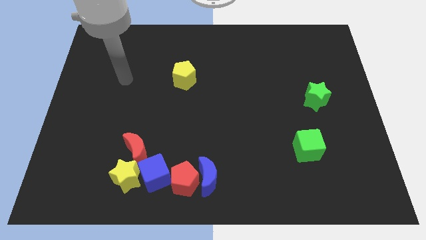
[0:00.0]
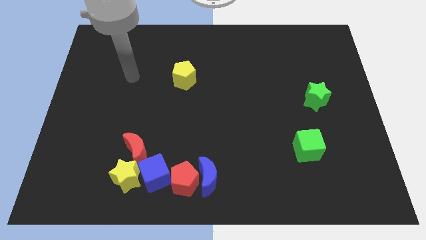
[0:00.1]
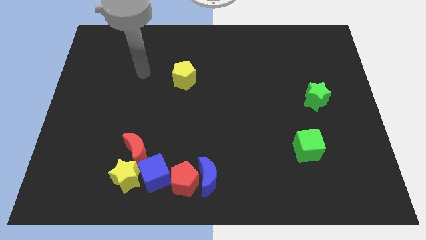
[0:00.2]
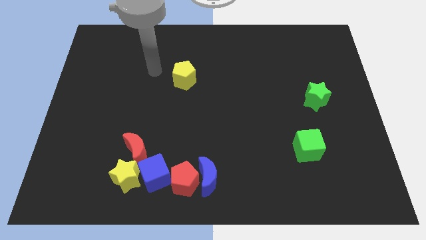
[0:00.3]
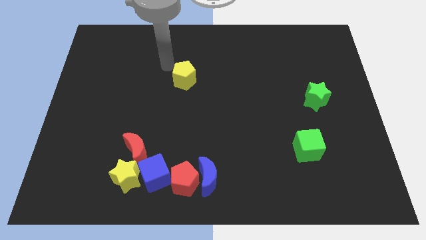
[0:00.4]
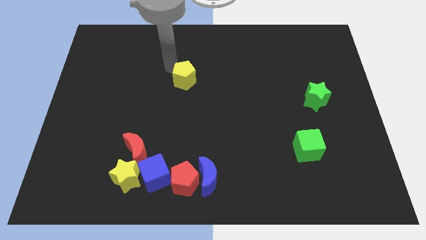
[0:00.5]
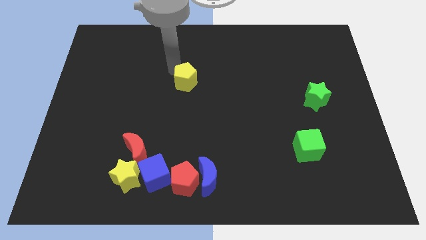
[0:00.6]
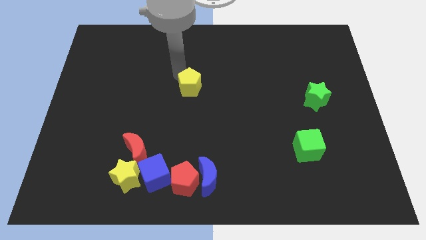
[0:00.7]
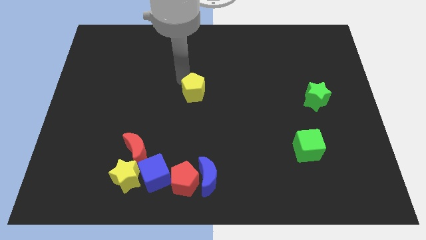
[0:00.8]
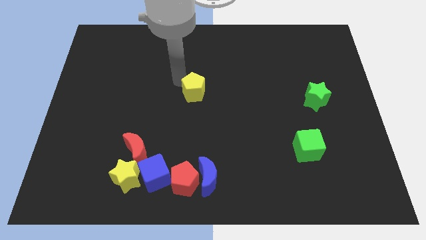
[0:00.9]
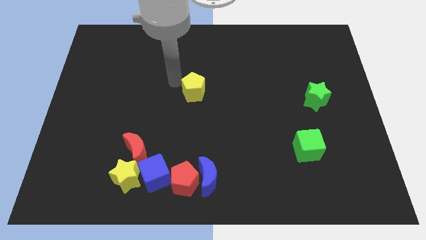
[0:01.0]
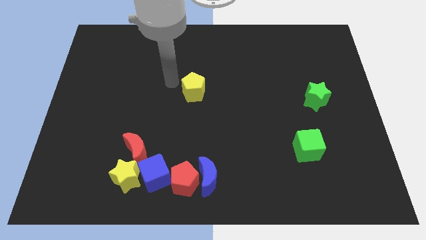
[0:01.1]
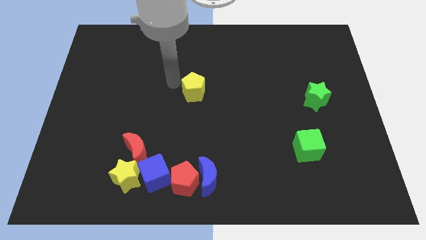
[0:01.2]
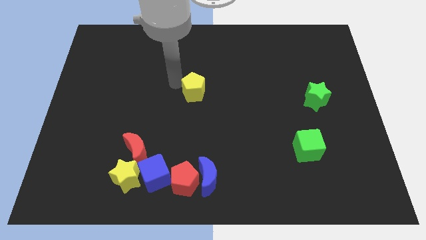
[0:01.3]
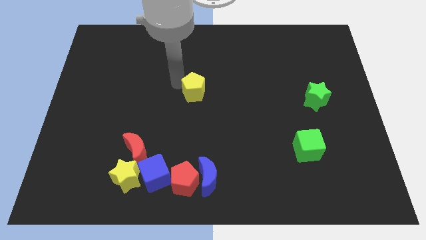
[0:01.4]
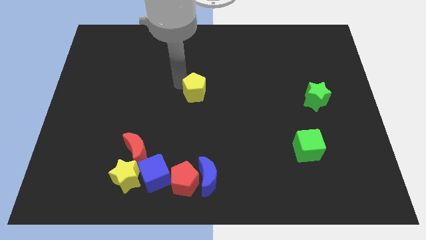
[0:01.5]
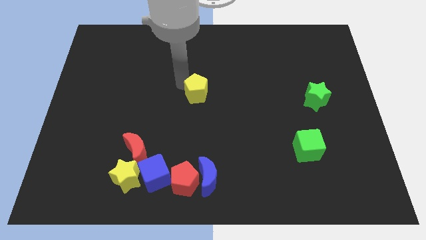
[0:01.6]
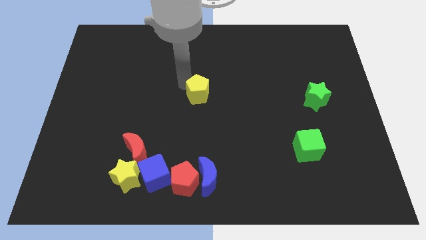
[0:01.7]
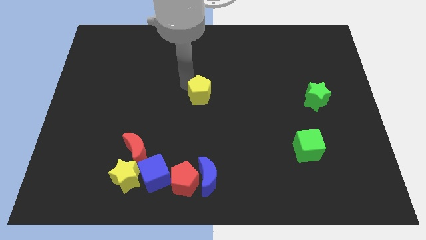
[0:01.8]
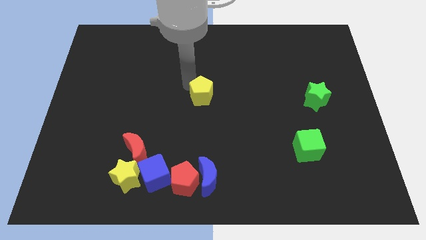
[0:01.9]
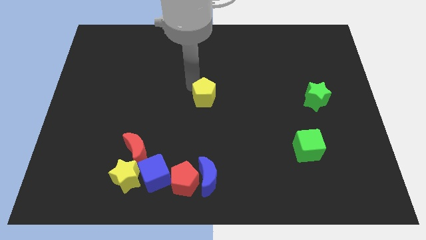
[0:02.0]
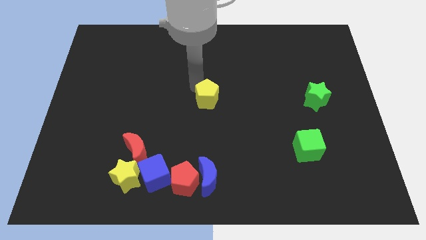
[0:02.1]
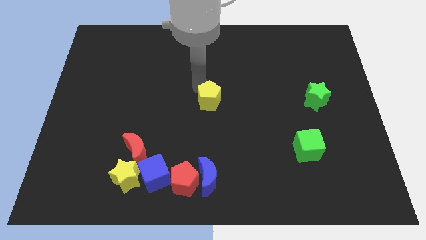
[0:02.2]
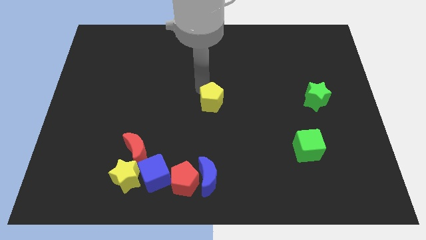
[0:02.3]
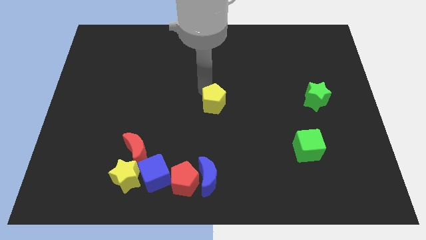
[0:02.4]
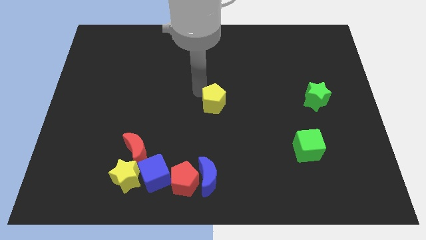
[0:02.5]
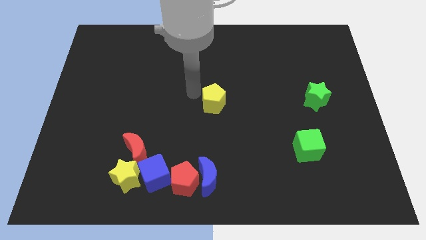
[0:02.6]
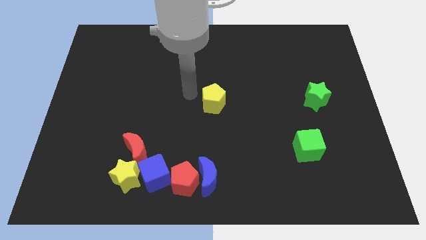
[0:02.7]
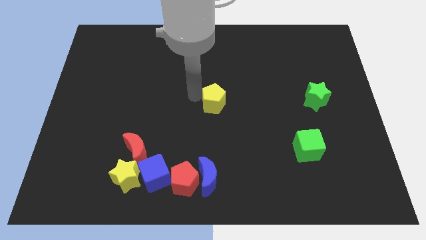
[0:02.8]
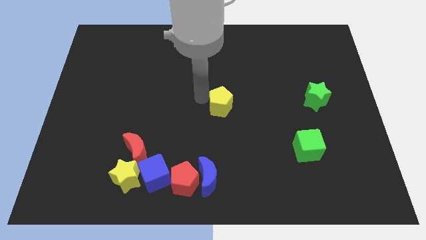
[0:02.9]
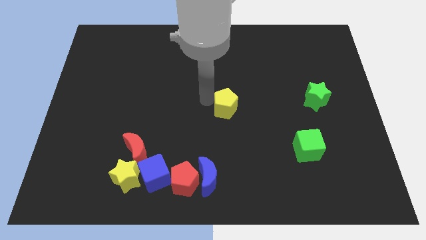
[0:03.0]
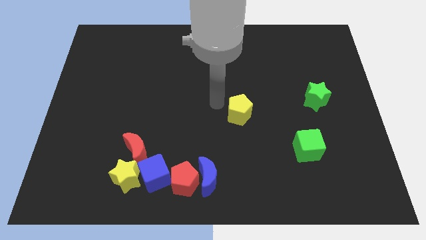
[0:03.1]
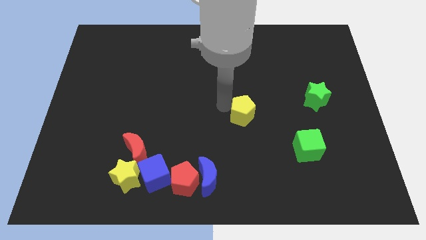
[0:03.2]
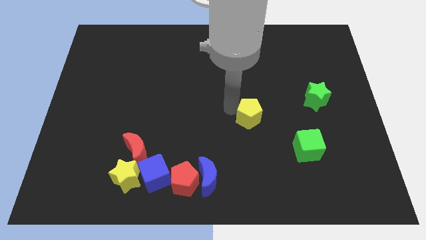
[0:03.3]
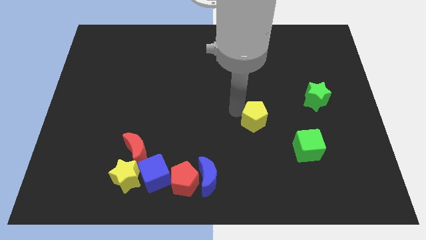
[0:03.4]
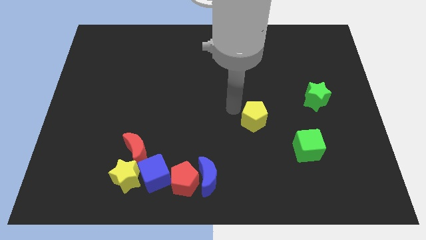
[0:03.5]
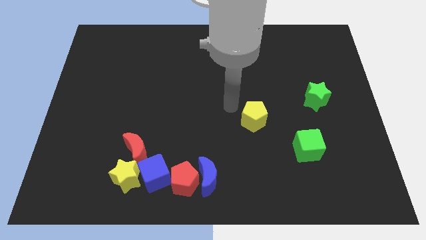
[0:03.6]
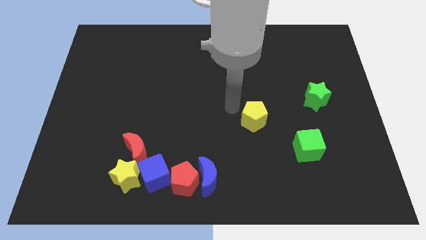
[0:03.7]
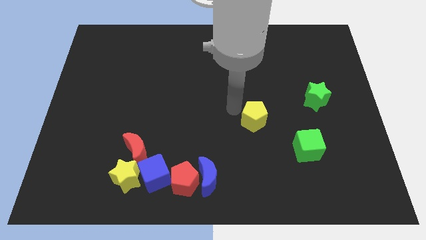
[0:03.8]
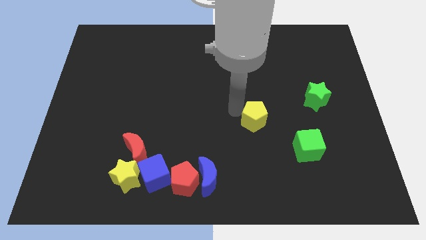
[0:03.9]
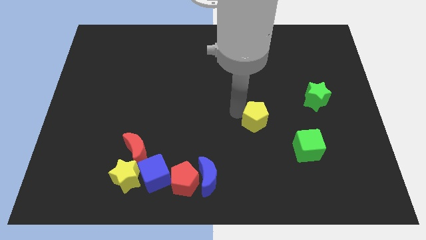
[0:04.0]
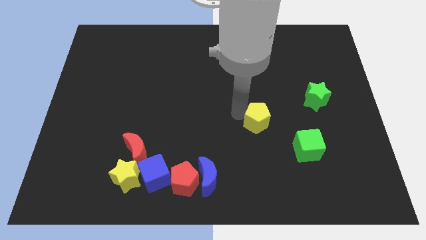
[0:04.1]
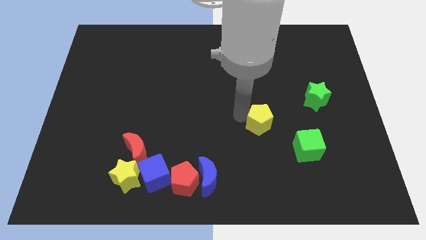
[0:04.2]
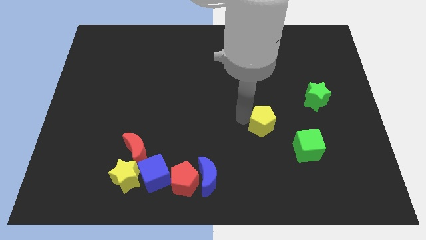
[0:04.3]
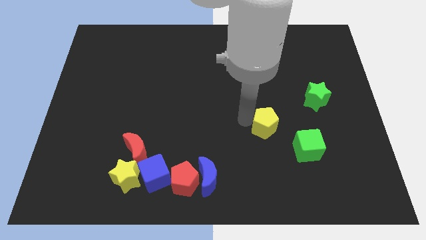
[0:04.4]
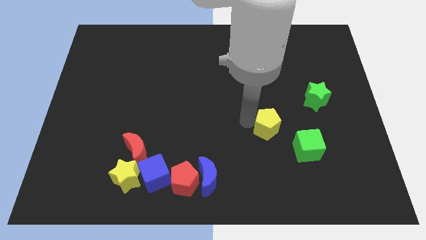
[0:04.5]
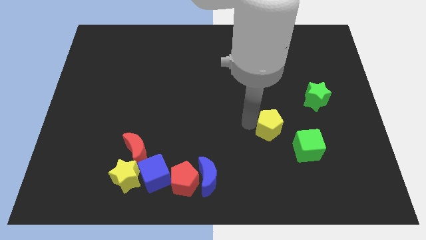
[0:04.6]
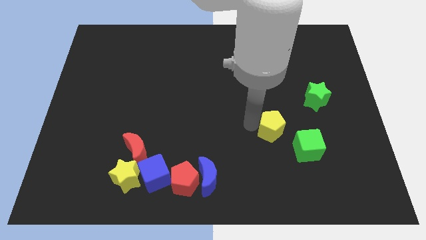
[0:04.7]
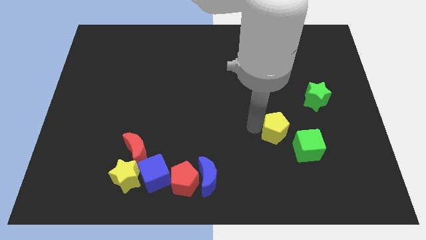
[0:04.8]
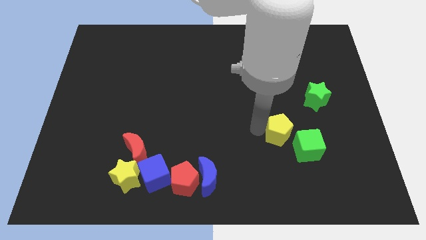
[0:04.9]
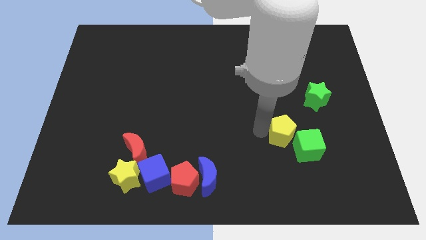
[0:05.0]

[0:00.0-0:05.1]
put the yellow pentagon towards the green cube

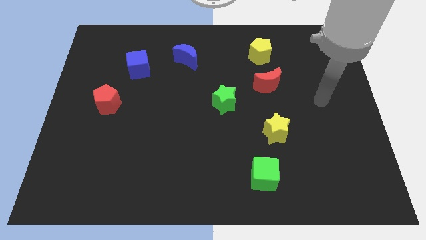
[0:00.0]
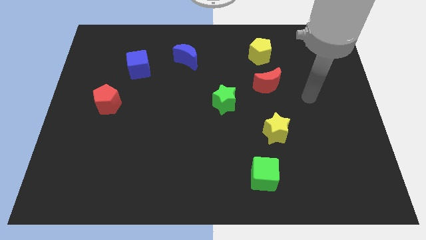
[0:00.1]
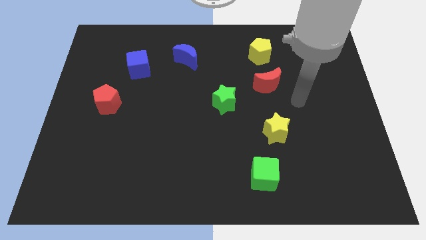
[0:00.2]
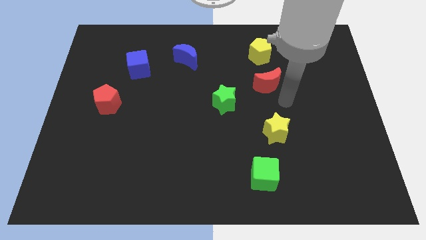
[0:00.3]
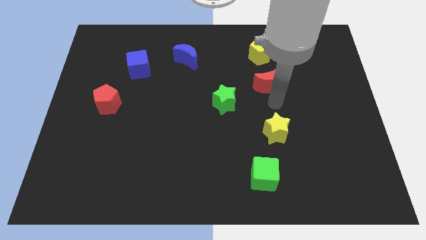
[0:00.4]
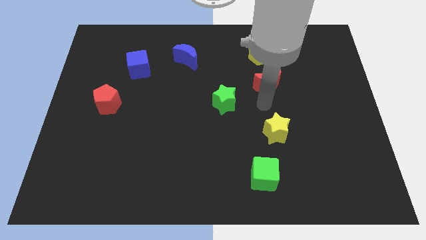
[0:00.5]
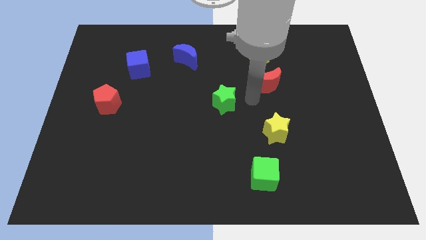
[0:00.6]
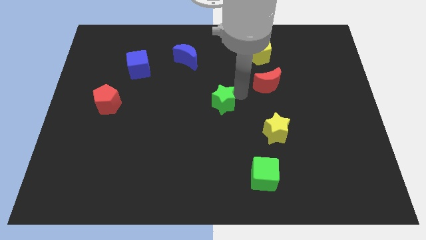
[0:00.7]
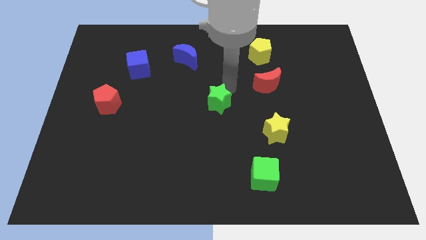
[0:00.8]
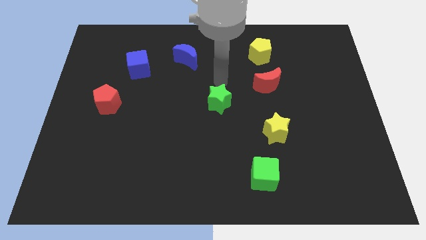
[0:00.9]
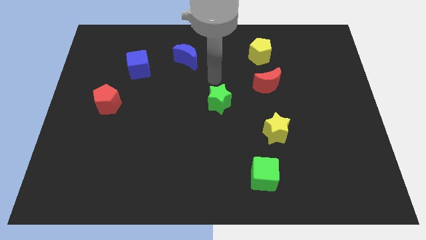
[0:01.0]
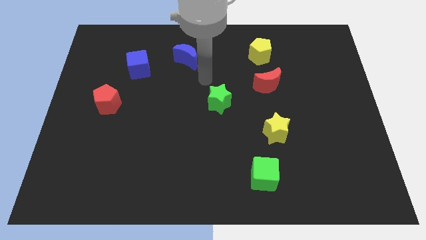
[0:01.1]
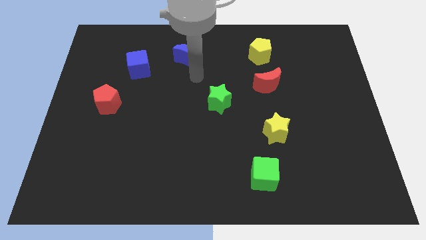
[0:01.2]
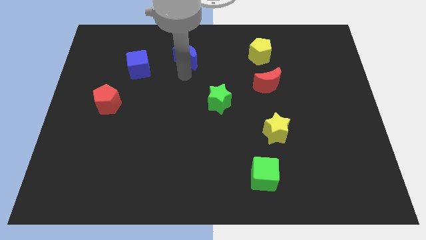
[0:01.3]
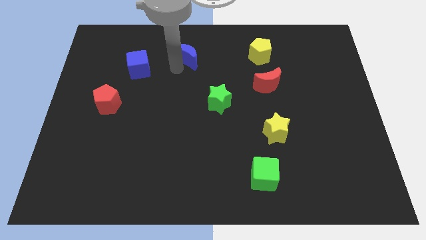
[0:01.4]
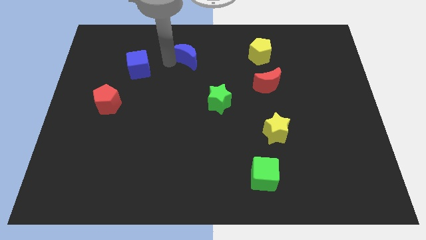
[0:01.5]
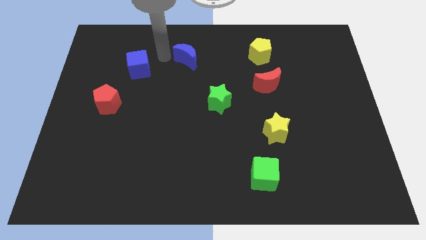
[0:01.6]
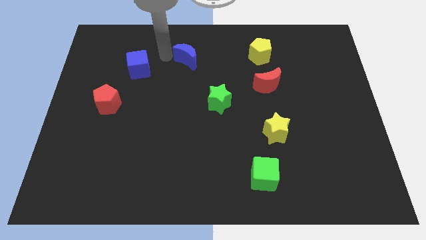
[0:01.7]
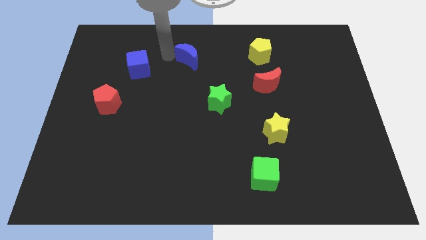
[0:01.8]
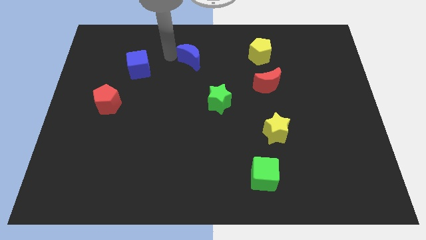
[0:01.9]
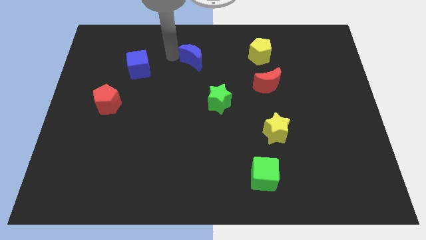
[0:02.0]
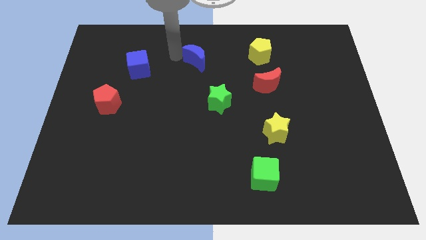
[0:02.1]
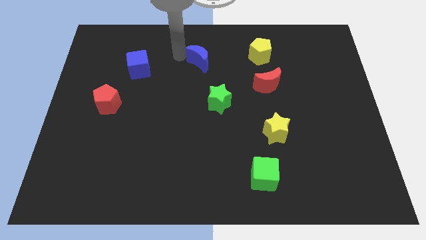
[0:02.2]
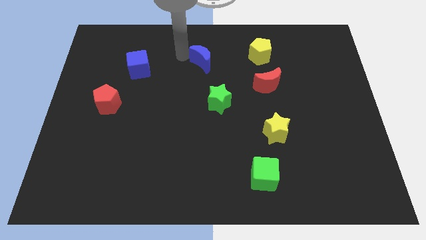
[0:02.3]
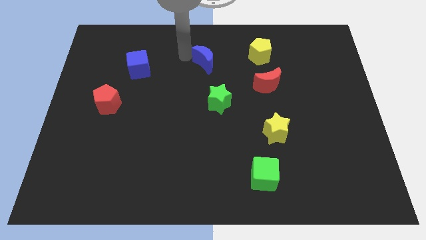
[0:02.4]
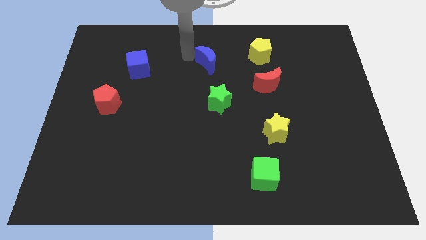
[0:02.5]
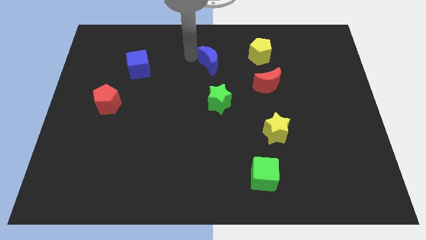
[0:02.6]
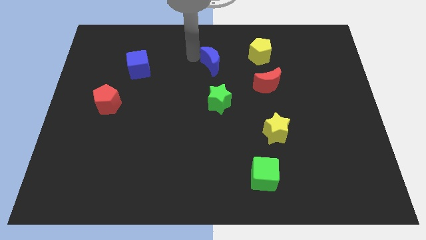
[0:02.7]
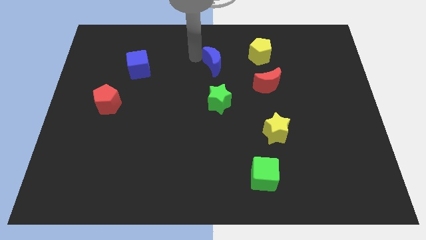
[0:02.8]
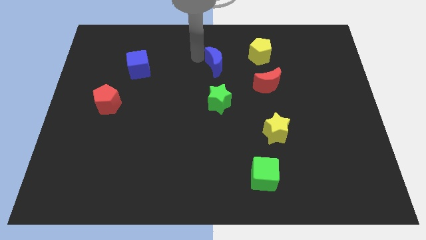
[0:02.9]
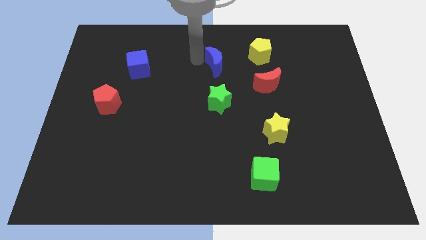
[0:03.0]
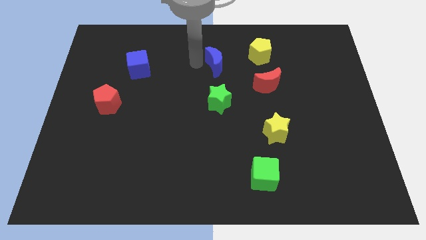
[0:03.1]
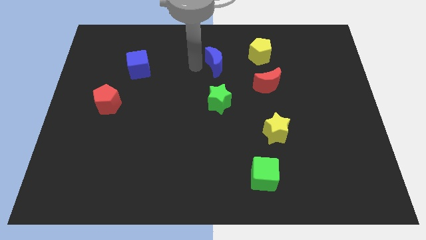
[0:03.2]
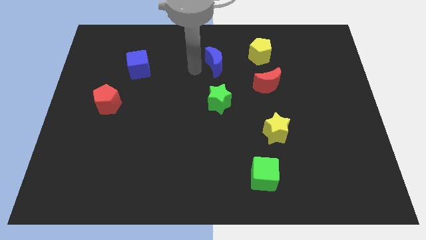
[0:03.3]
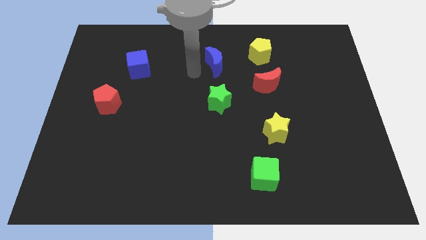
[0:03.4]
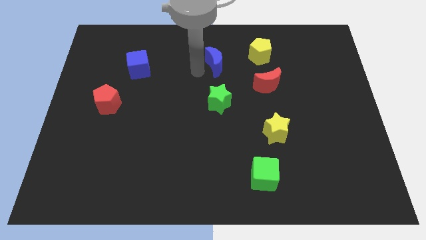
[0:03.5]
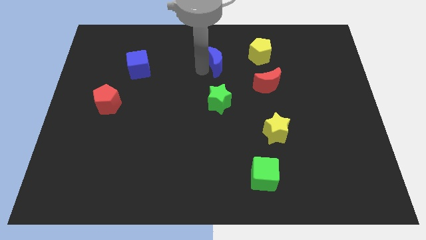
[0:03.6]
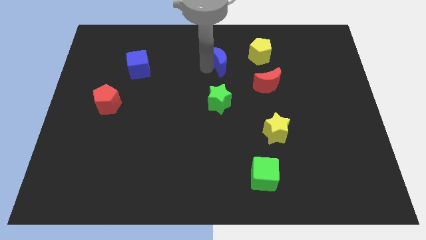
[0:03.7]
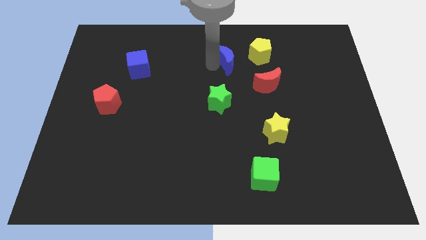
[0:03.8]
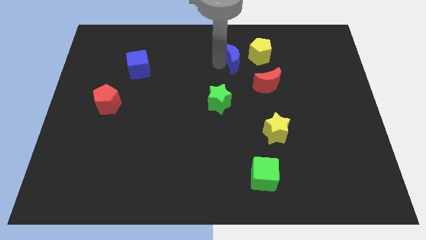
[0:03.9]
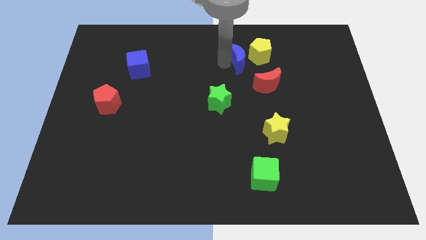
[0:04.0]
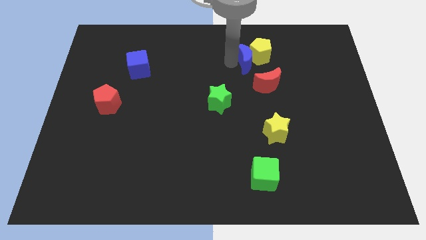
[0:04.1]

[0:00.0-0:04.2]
move the blue moon next to the yellow pentagon
